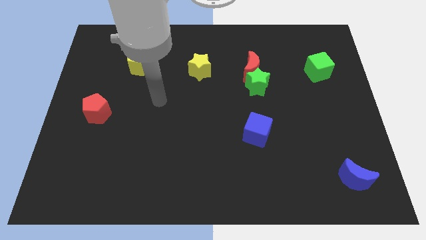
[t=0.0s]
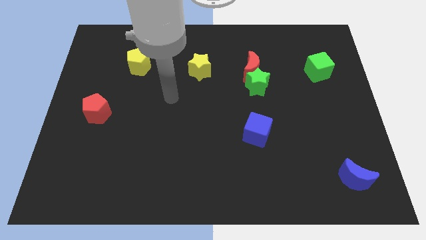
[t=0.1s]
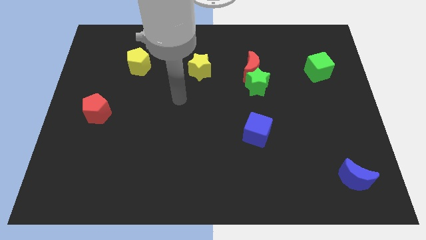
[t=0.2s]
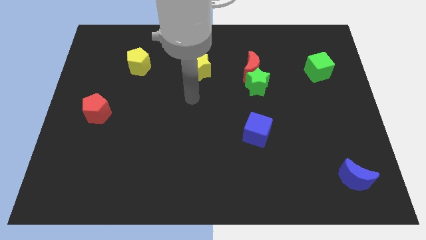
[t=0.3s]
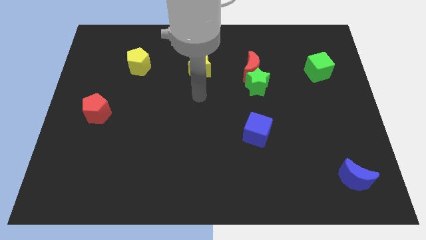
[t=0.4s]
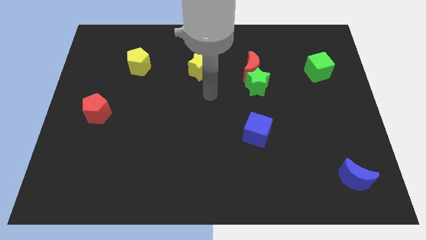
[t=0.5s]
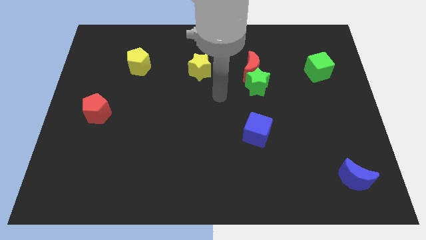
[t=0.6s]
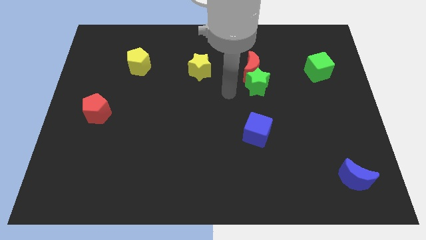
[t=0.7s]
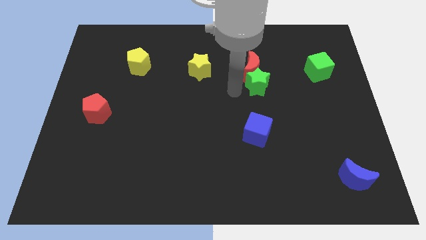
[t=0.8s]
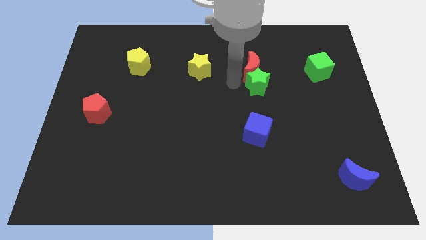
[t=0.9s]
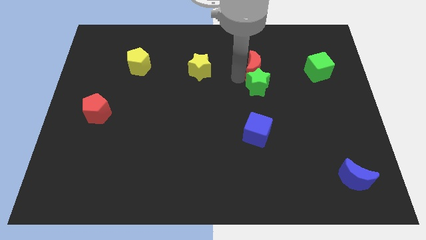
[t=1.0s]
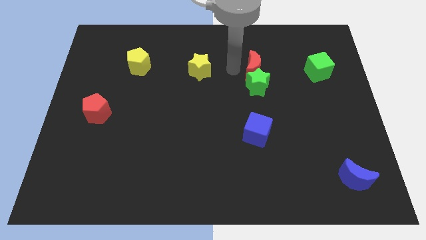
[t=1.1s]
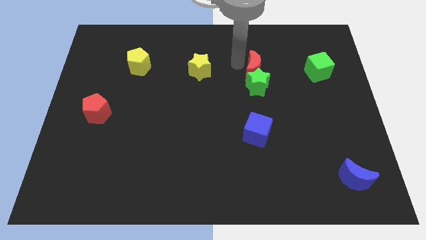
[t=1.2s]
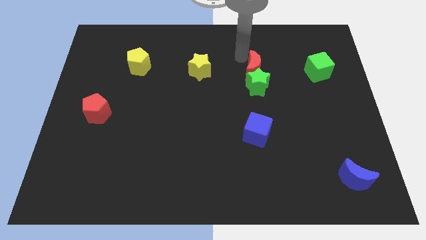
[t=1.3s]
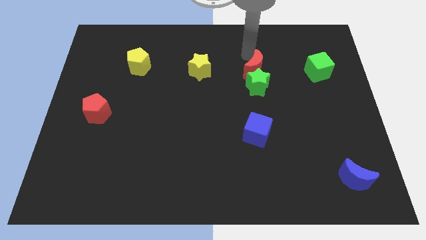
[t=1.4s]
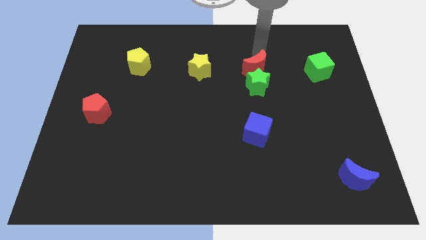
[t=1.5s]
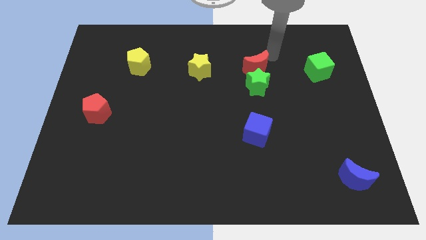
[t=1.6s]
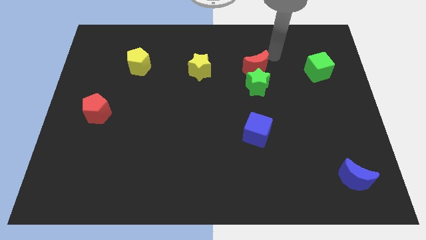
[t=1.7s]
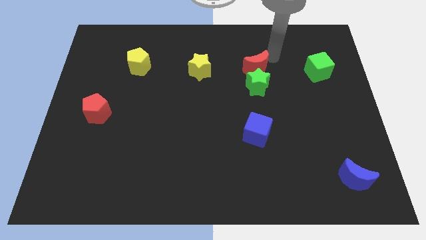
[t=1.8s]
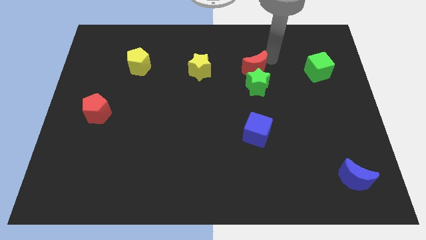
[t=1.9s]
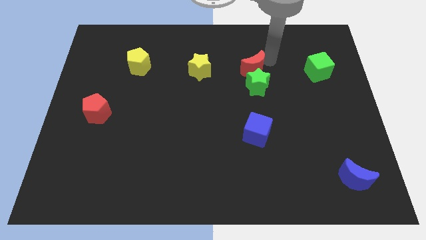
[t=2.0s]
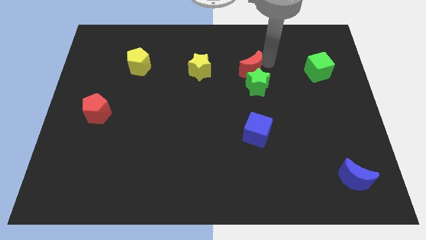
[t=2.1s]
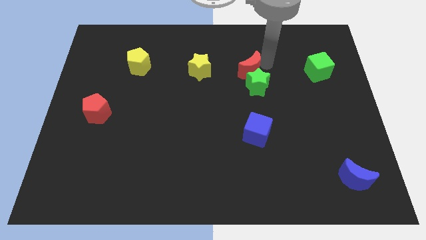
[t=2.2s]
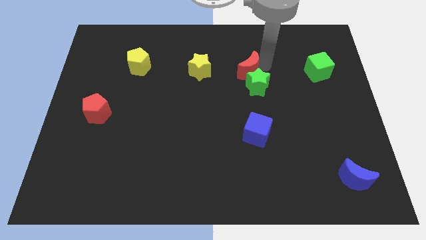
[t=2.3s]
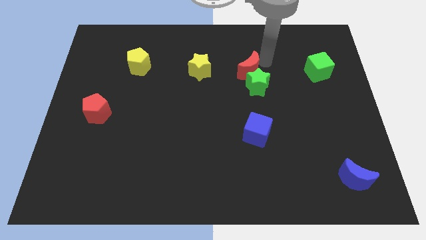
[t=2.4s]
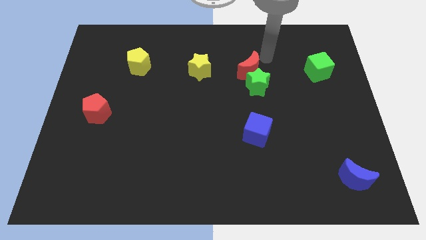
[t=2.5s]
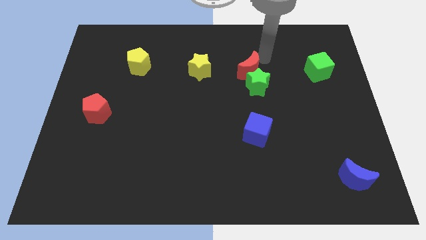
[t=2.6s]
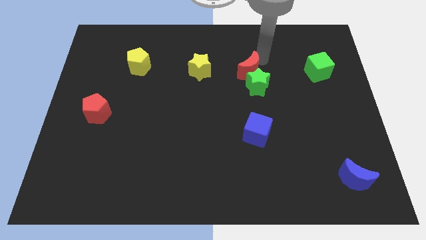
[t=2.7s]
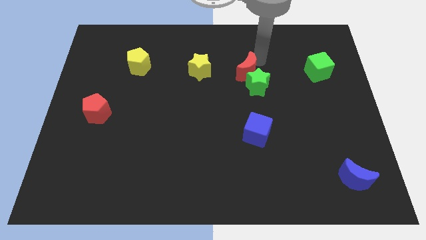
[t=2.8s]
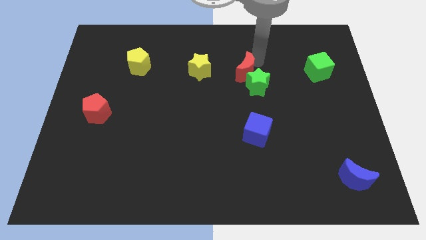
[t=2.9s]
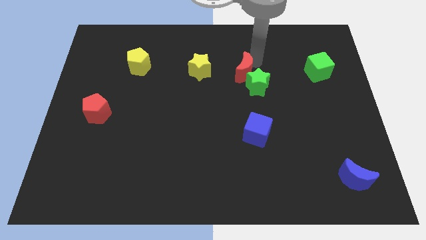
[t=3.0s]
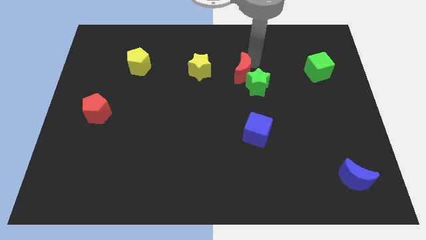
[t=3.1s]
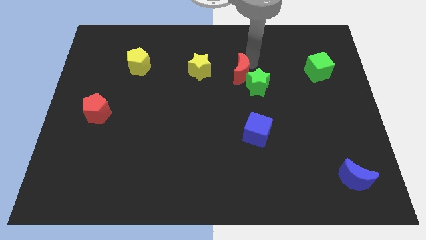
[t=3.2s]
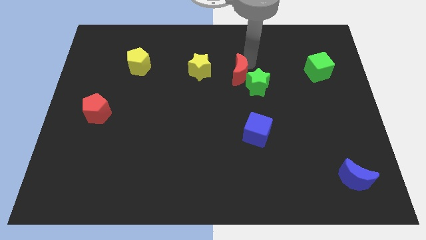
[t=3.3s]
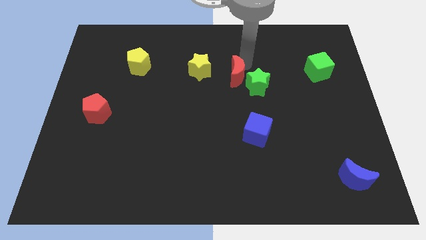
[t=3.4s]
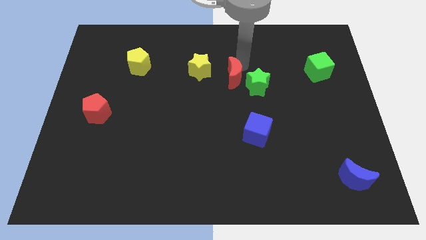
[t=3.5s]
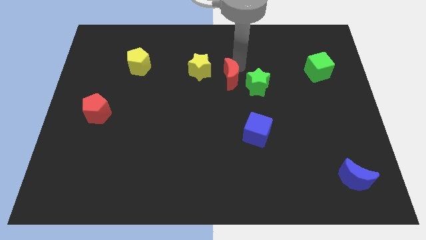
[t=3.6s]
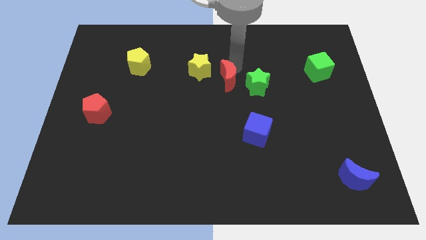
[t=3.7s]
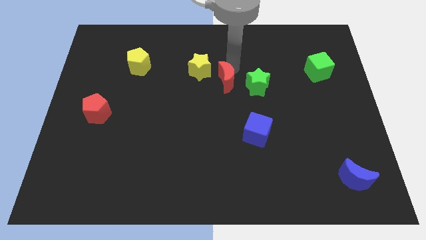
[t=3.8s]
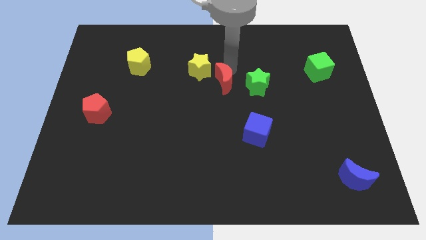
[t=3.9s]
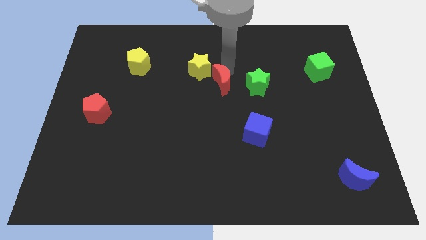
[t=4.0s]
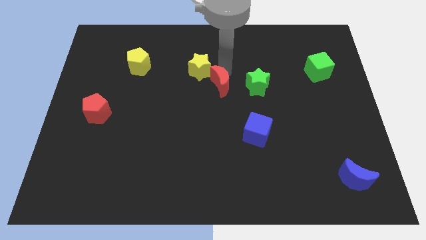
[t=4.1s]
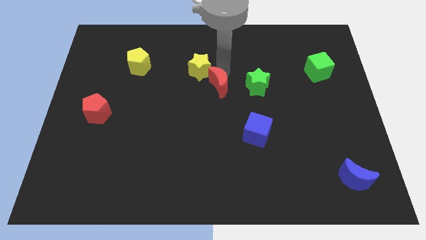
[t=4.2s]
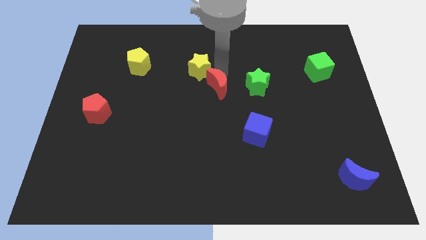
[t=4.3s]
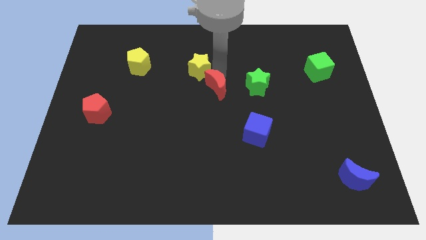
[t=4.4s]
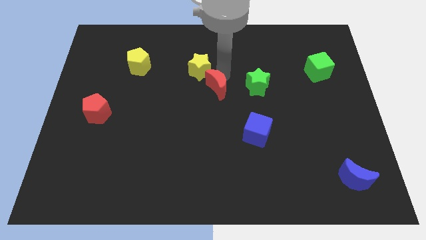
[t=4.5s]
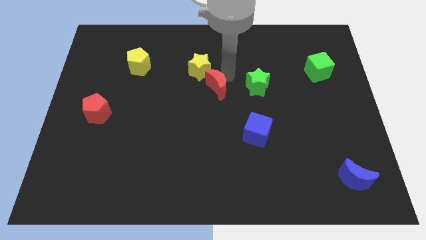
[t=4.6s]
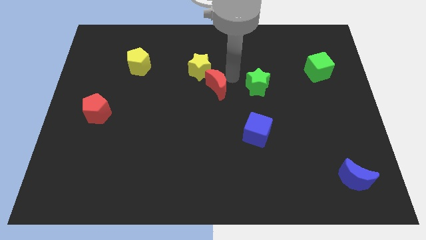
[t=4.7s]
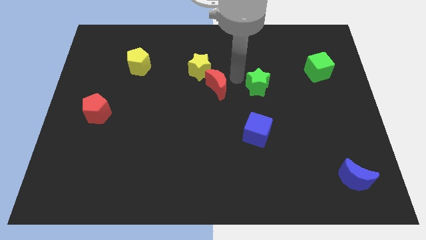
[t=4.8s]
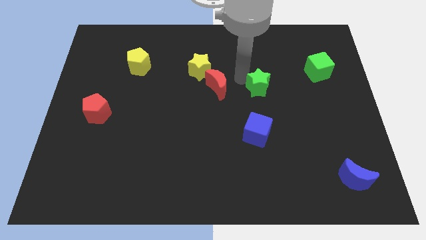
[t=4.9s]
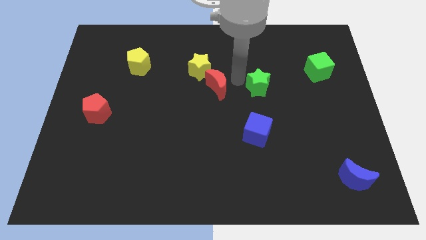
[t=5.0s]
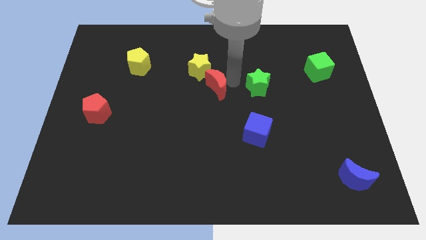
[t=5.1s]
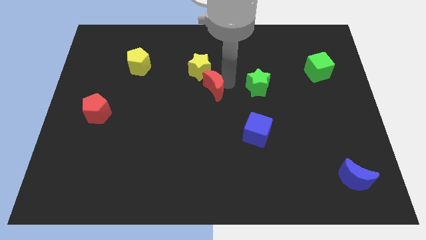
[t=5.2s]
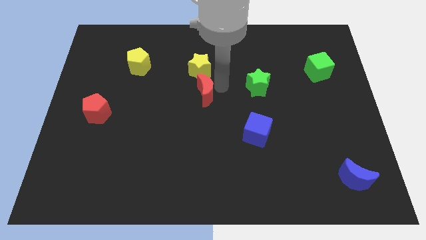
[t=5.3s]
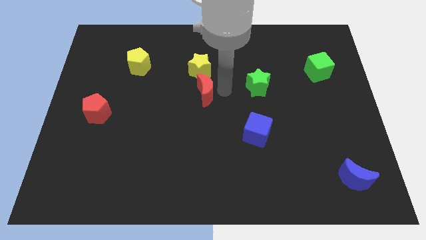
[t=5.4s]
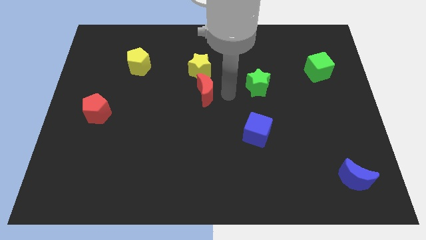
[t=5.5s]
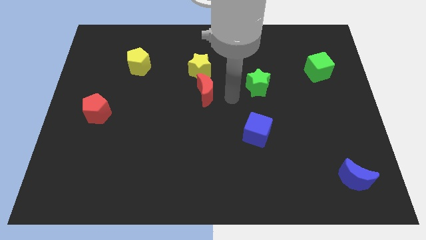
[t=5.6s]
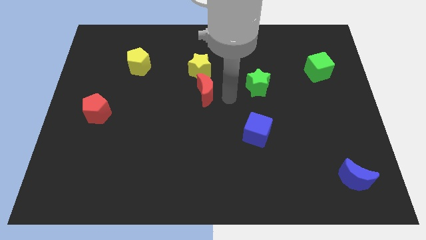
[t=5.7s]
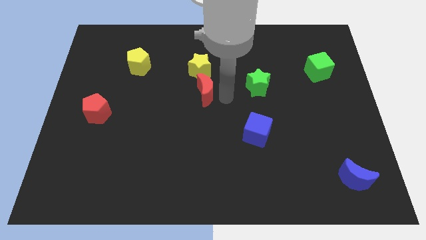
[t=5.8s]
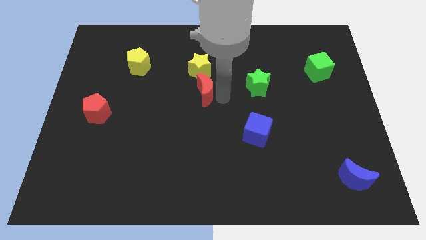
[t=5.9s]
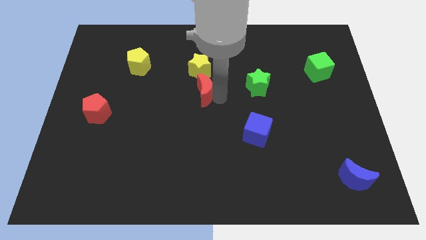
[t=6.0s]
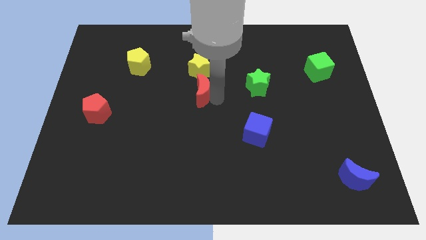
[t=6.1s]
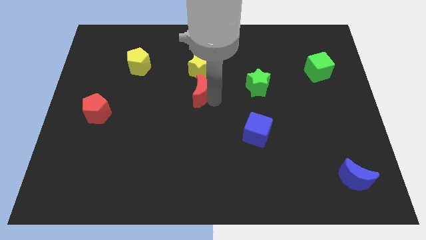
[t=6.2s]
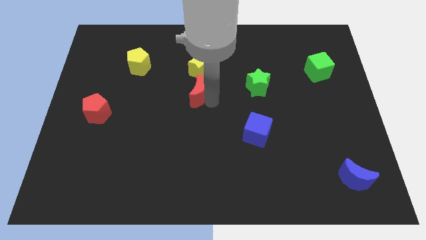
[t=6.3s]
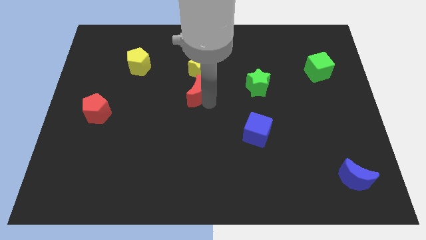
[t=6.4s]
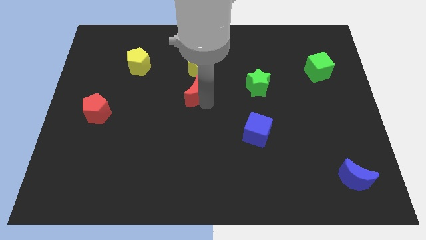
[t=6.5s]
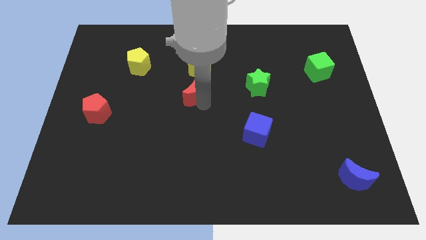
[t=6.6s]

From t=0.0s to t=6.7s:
slide the red moon diagonally down and to the left of the yellow star

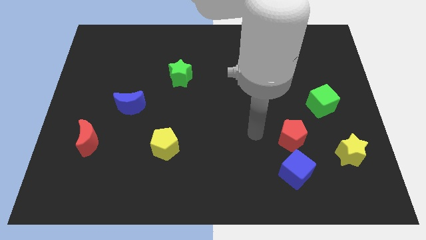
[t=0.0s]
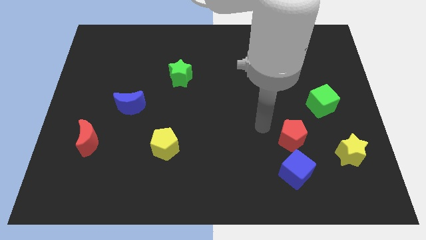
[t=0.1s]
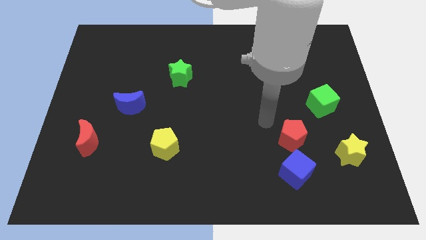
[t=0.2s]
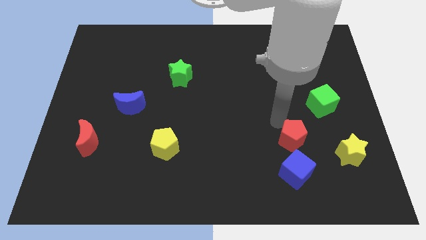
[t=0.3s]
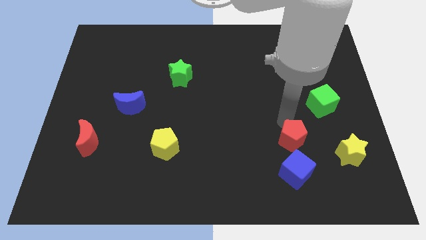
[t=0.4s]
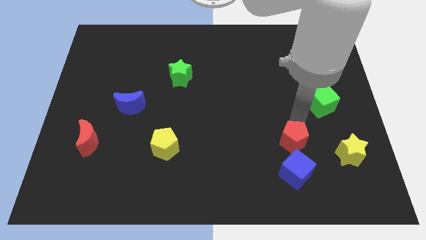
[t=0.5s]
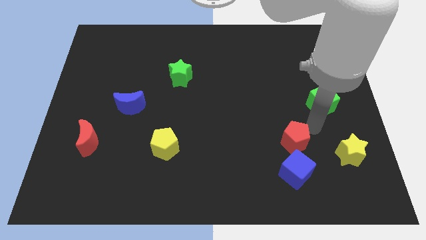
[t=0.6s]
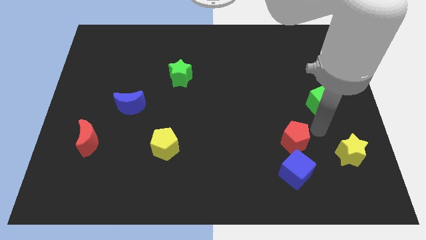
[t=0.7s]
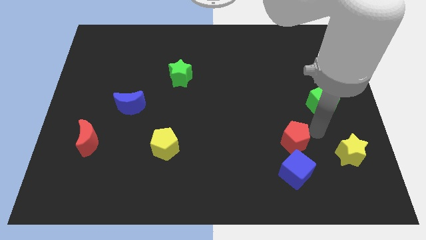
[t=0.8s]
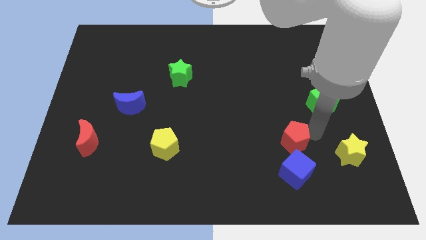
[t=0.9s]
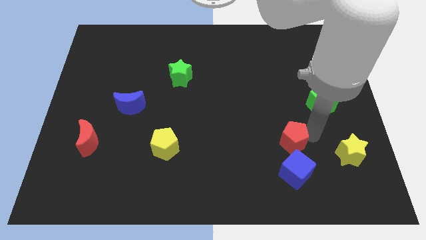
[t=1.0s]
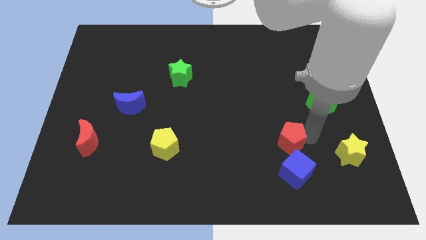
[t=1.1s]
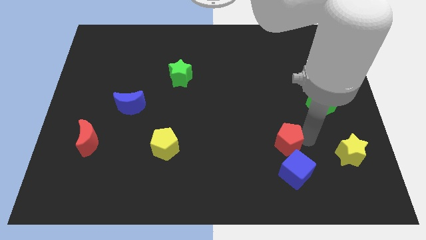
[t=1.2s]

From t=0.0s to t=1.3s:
put the red pentagon to the top left side of the blue cube
